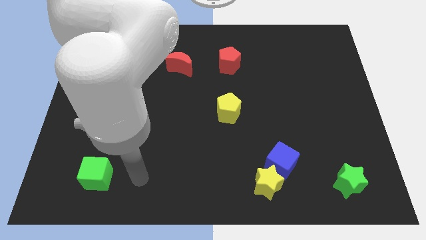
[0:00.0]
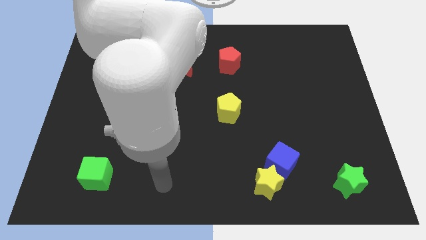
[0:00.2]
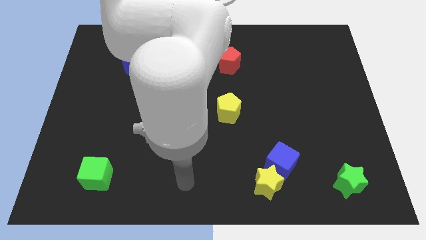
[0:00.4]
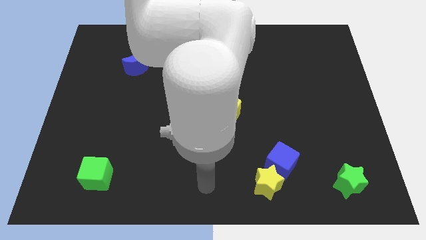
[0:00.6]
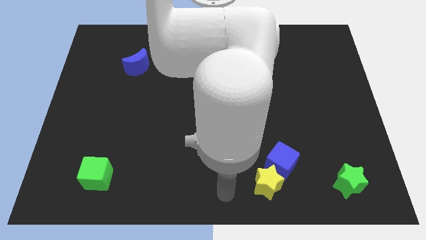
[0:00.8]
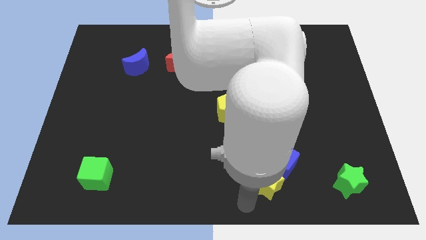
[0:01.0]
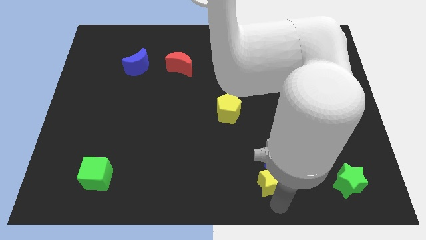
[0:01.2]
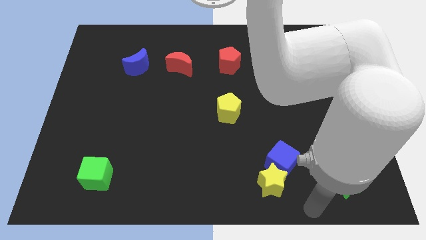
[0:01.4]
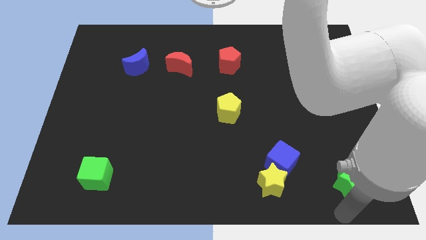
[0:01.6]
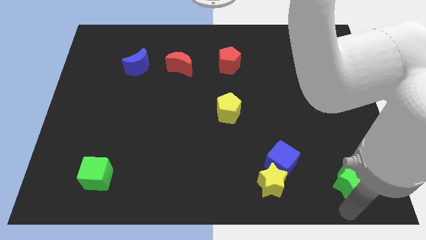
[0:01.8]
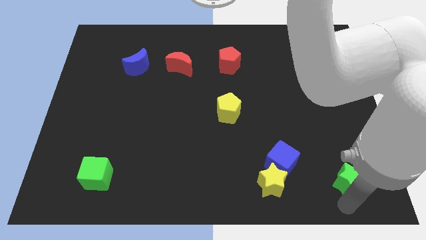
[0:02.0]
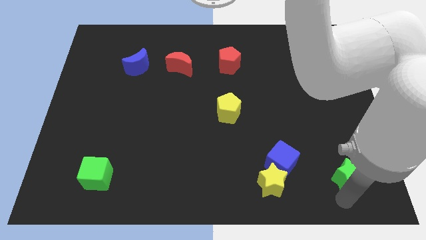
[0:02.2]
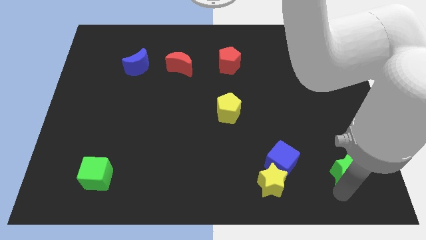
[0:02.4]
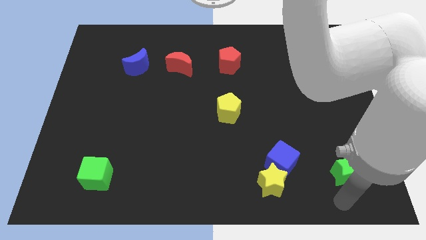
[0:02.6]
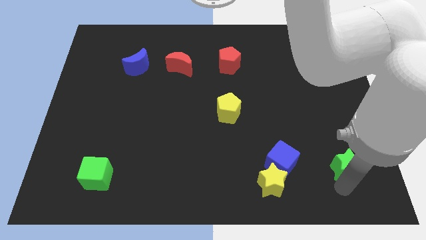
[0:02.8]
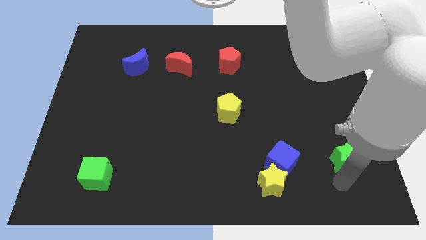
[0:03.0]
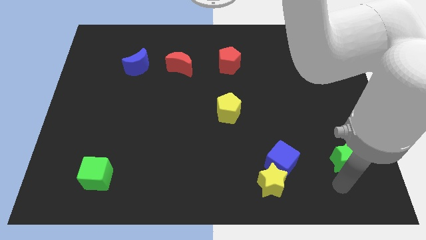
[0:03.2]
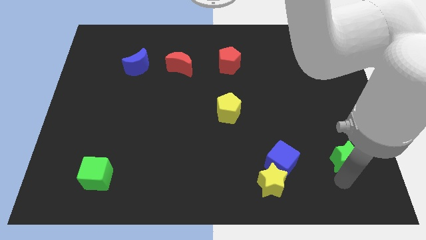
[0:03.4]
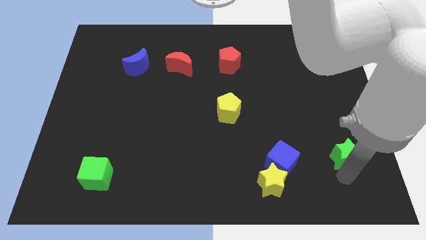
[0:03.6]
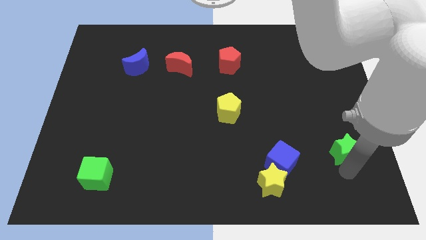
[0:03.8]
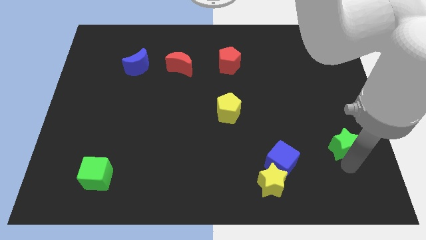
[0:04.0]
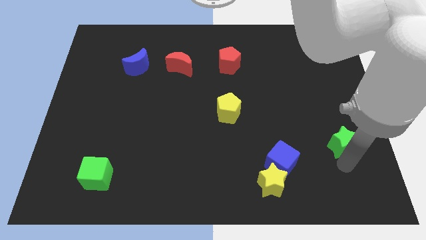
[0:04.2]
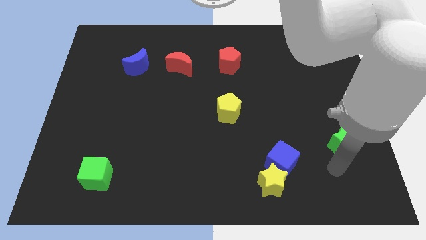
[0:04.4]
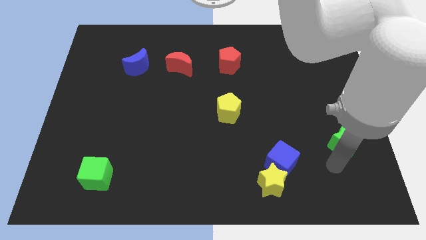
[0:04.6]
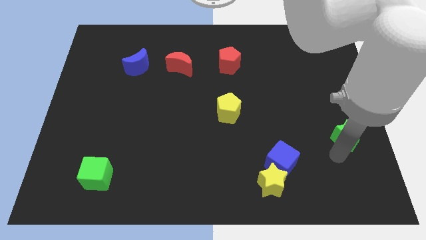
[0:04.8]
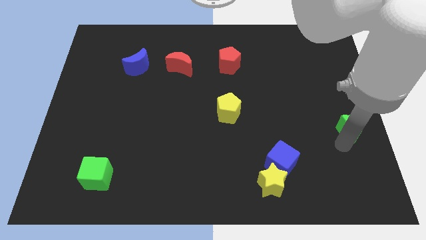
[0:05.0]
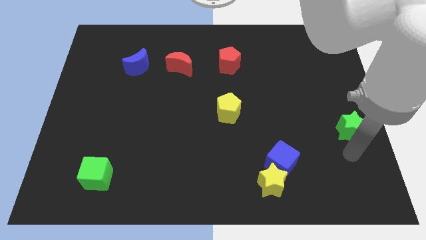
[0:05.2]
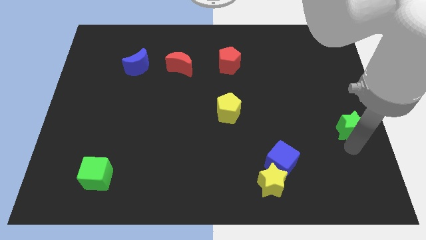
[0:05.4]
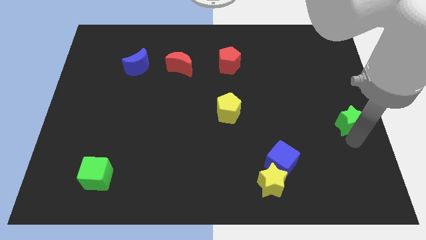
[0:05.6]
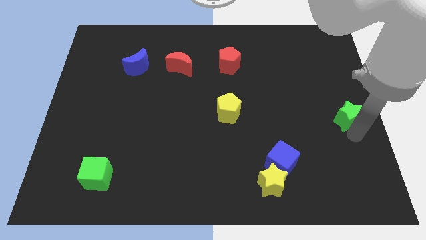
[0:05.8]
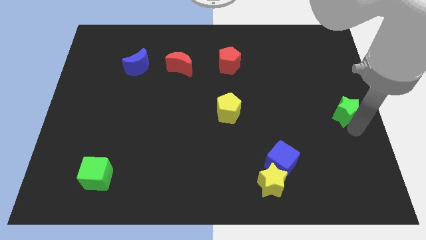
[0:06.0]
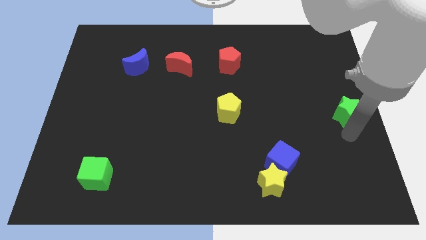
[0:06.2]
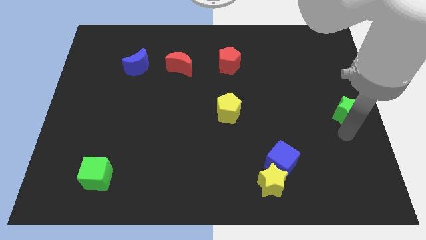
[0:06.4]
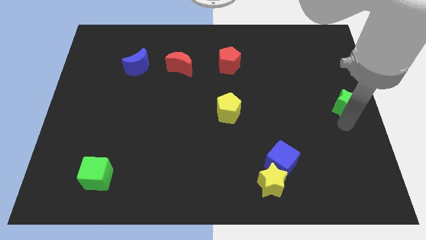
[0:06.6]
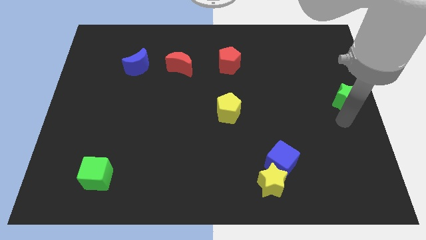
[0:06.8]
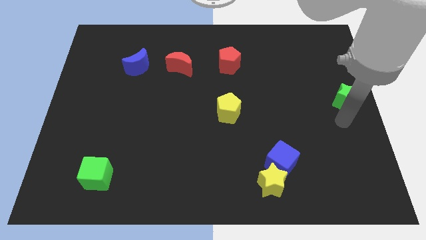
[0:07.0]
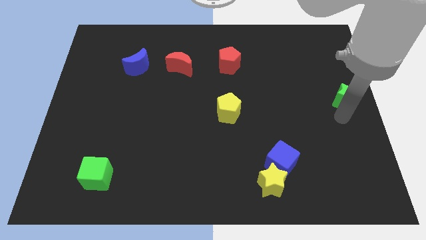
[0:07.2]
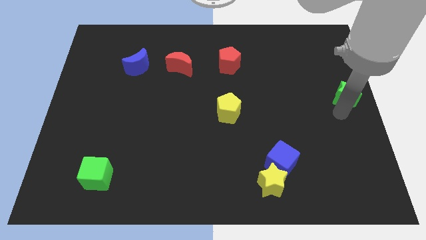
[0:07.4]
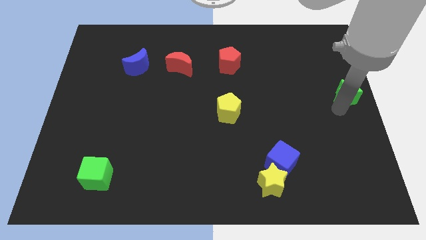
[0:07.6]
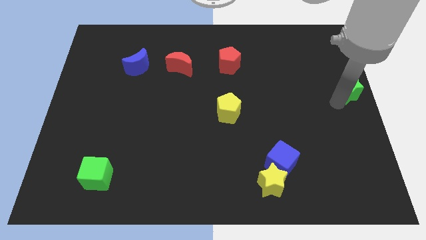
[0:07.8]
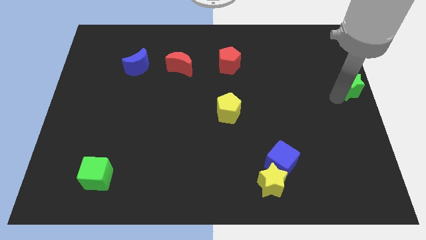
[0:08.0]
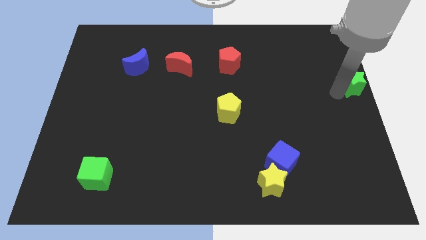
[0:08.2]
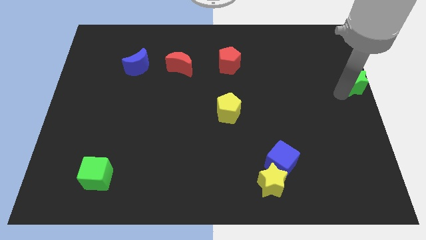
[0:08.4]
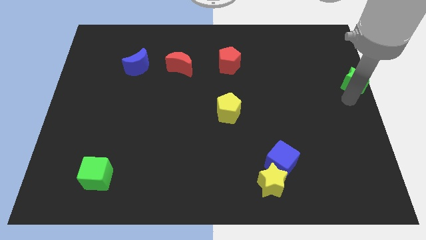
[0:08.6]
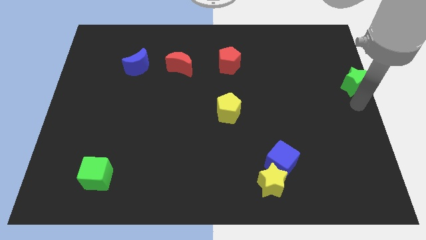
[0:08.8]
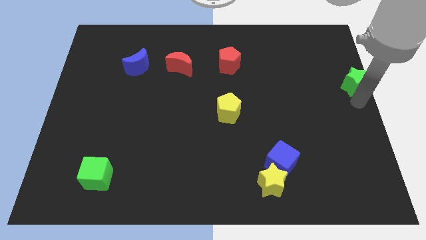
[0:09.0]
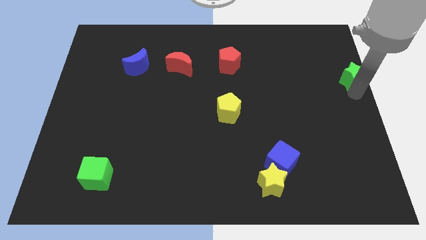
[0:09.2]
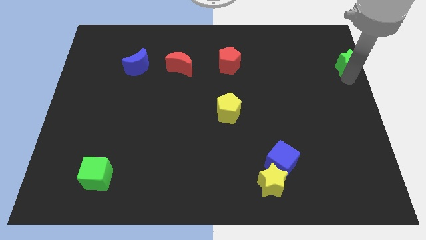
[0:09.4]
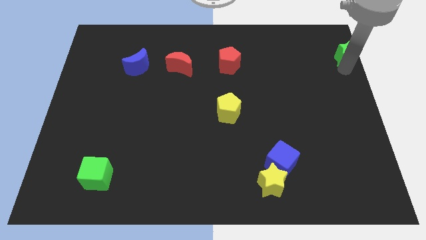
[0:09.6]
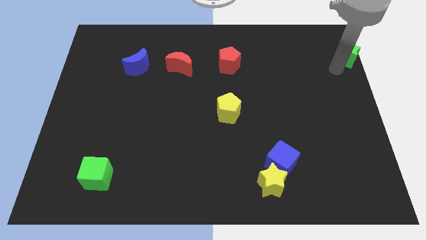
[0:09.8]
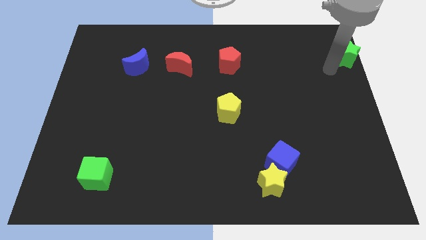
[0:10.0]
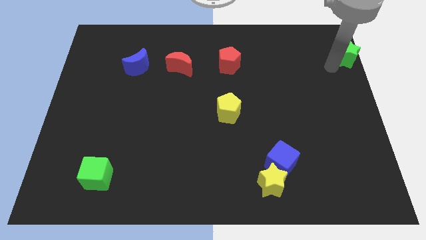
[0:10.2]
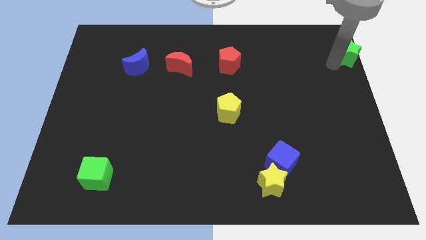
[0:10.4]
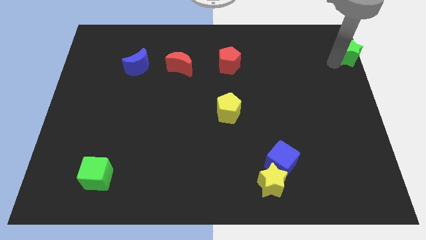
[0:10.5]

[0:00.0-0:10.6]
push the green star to the top right
